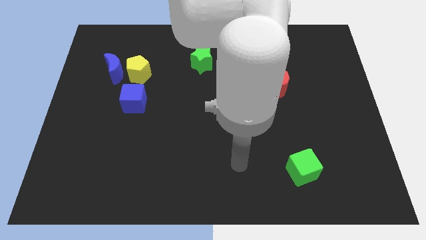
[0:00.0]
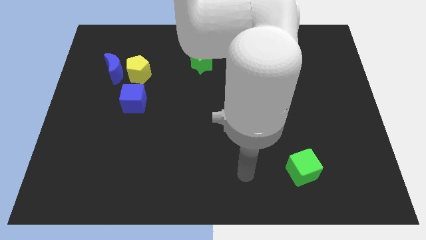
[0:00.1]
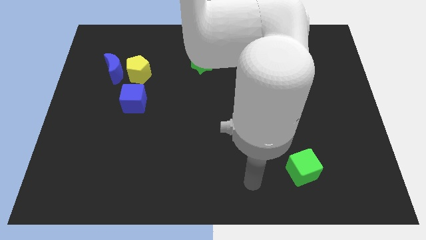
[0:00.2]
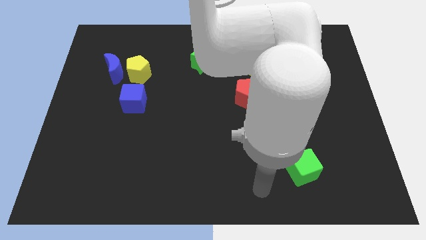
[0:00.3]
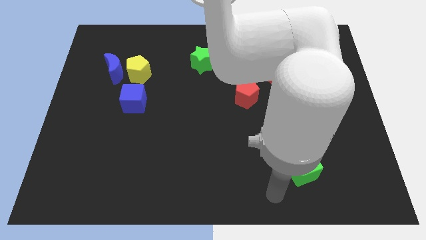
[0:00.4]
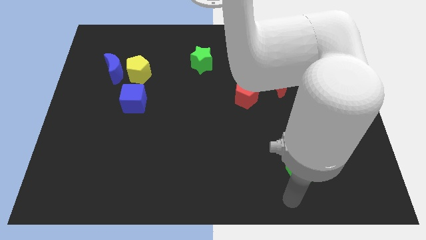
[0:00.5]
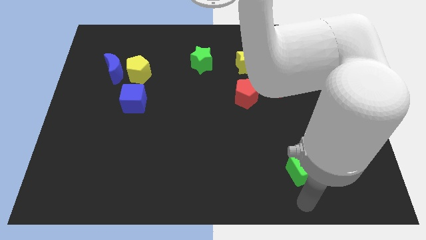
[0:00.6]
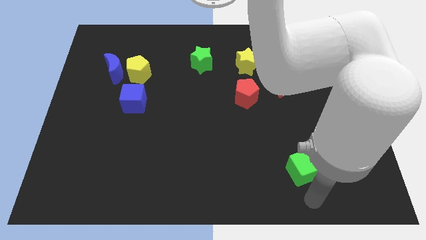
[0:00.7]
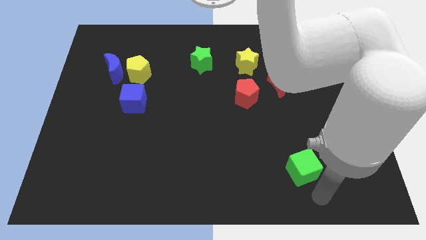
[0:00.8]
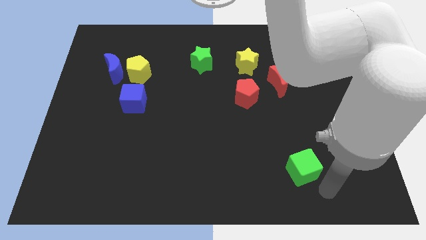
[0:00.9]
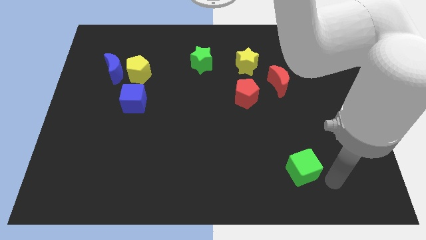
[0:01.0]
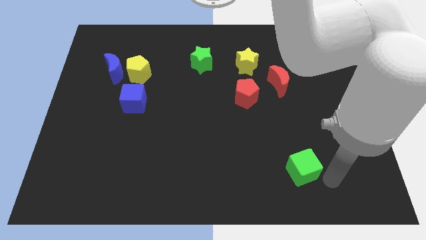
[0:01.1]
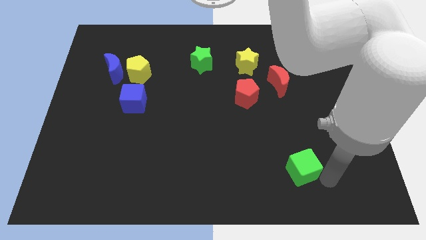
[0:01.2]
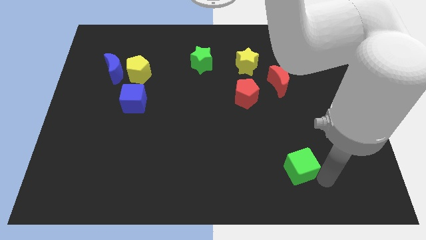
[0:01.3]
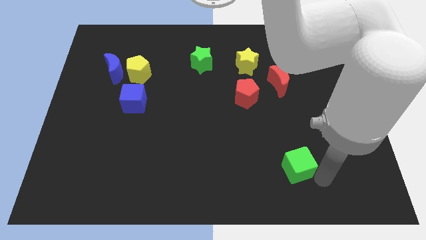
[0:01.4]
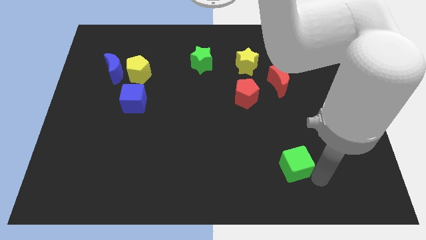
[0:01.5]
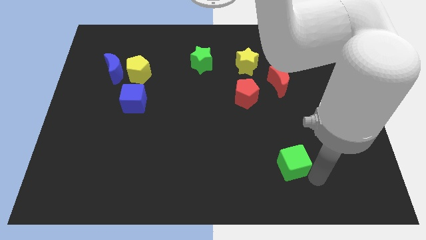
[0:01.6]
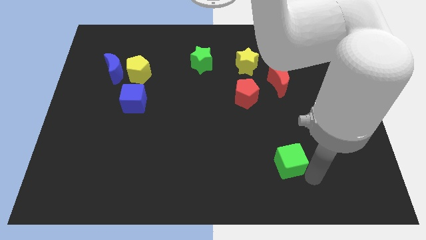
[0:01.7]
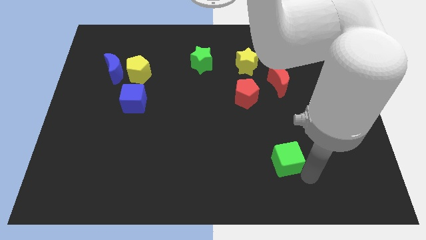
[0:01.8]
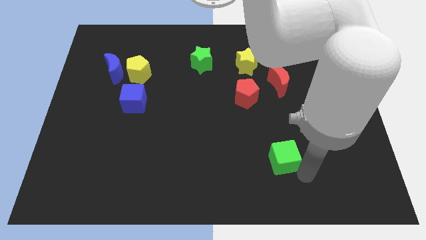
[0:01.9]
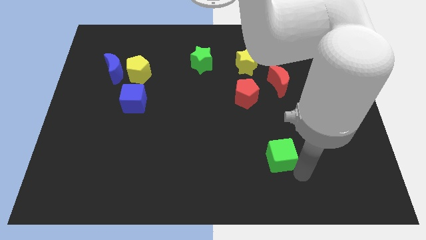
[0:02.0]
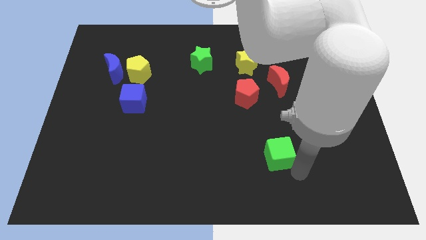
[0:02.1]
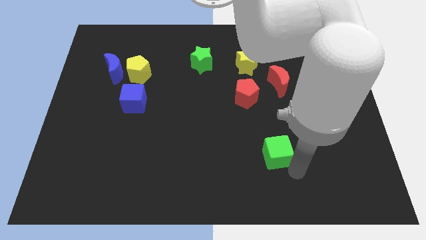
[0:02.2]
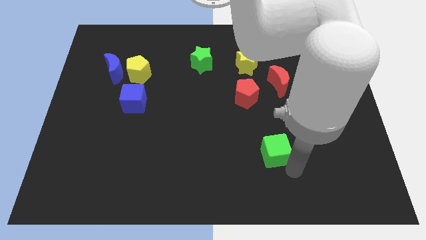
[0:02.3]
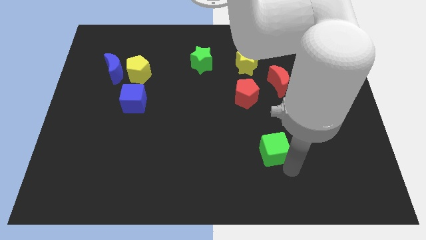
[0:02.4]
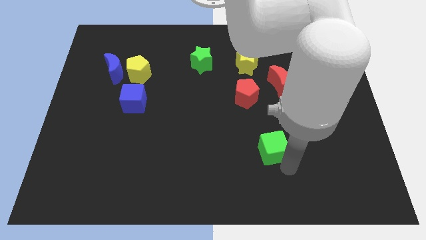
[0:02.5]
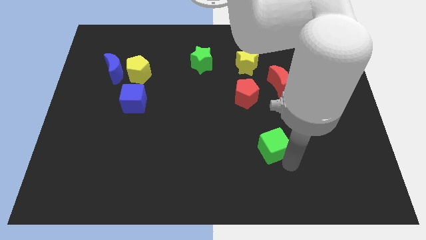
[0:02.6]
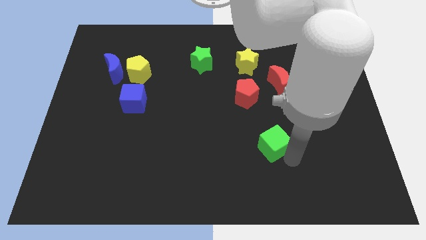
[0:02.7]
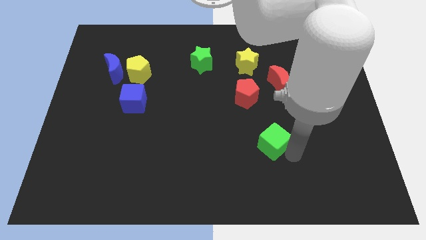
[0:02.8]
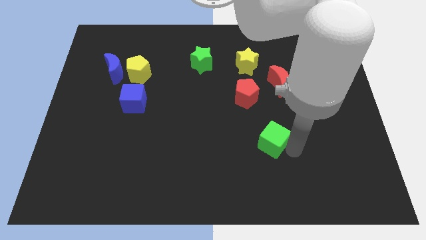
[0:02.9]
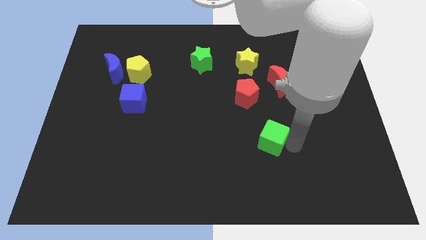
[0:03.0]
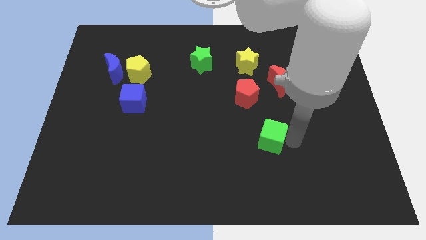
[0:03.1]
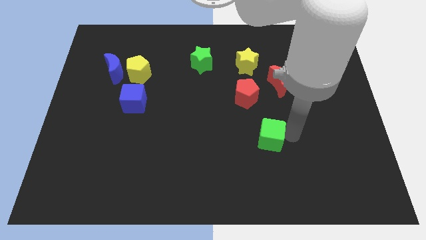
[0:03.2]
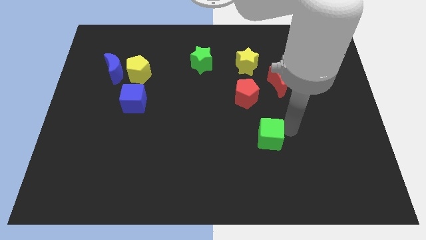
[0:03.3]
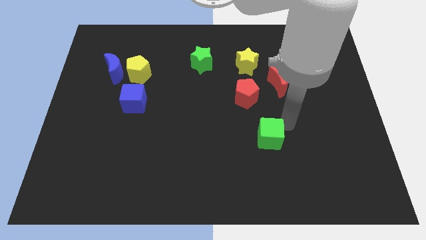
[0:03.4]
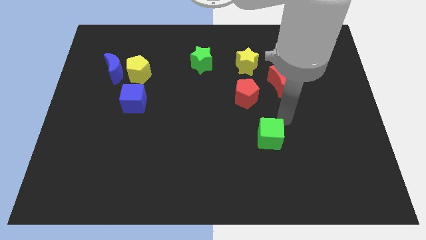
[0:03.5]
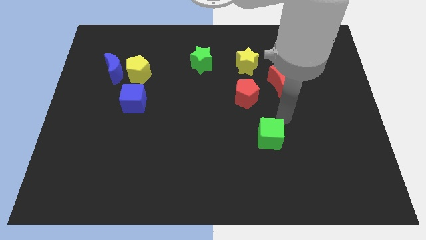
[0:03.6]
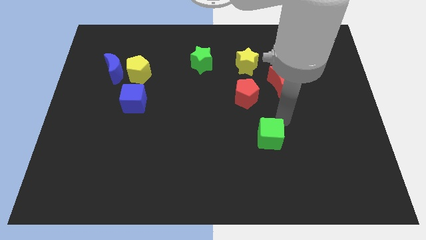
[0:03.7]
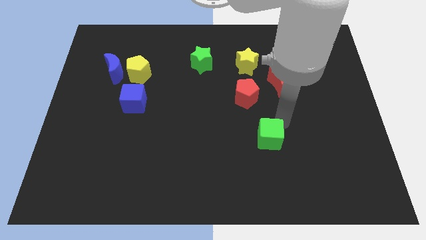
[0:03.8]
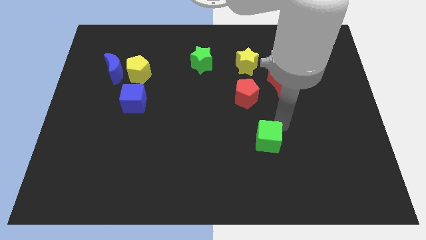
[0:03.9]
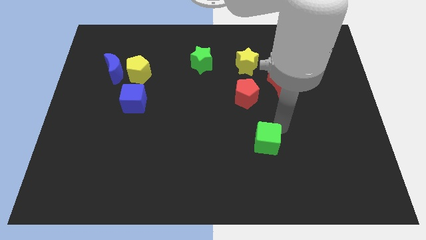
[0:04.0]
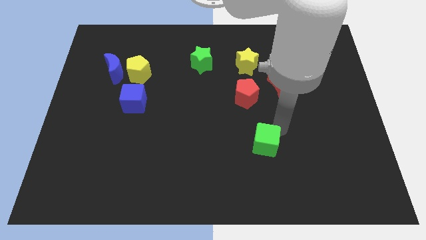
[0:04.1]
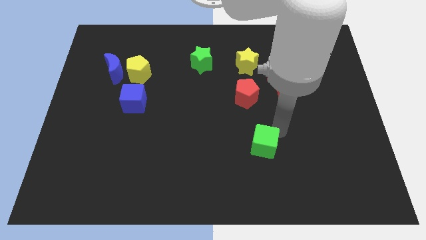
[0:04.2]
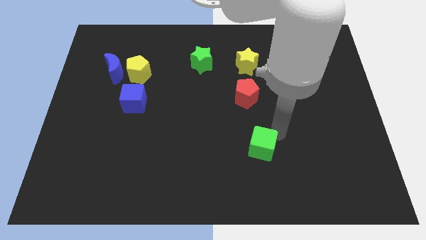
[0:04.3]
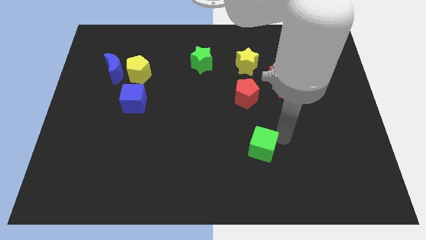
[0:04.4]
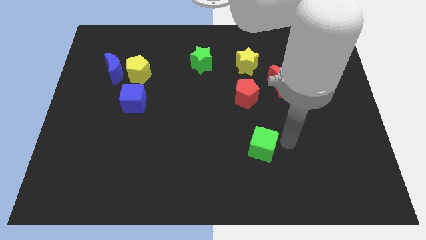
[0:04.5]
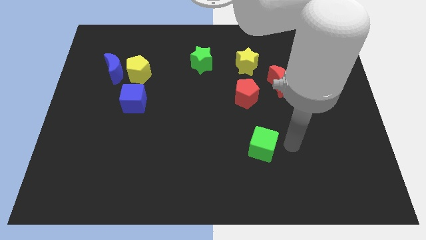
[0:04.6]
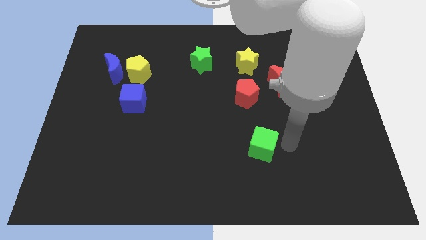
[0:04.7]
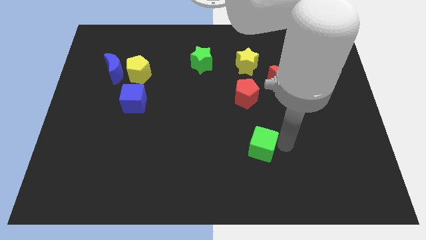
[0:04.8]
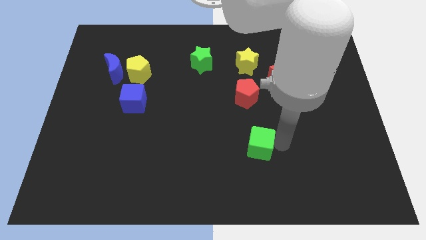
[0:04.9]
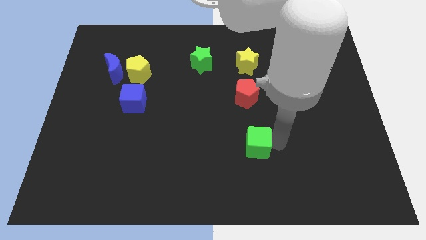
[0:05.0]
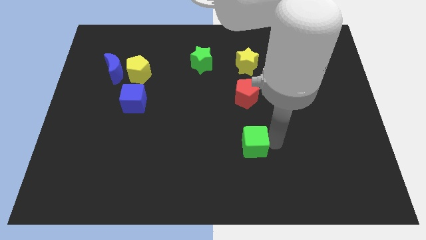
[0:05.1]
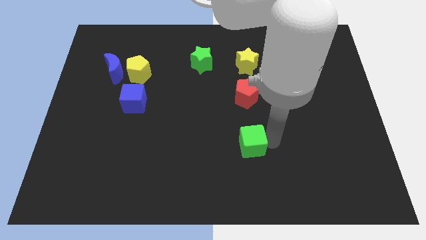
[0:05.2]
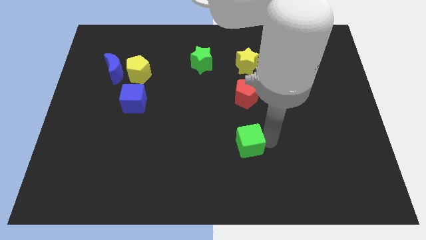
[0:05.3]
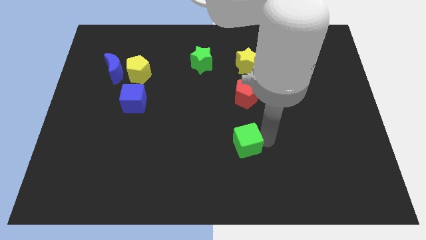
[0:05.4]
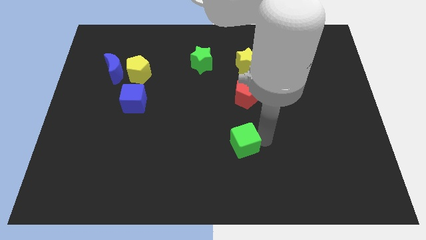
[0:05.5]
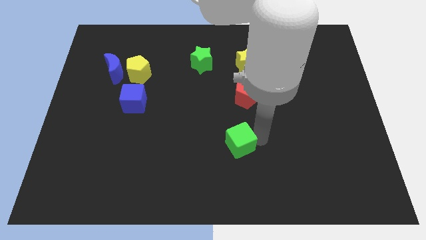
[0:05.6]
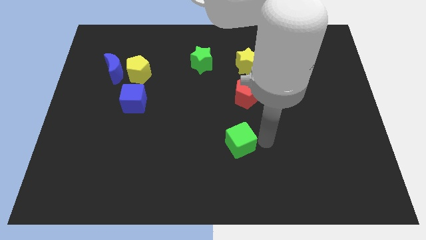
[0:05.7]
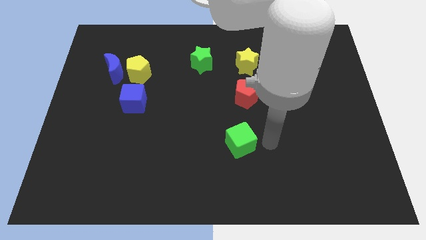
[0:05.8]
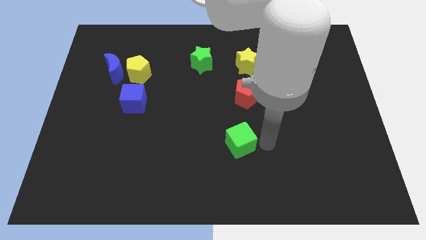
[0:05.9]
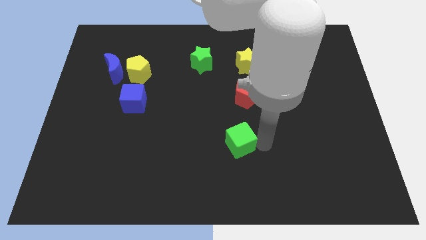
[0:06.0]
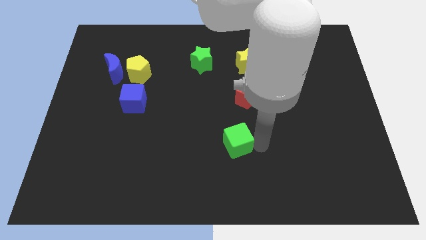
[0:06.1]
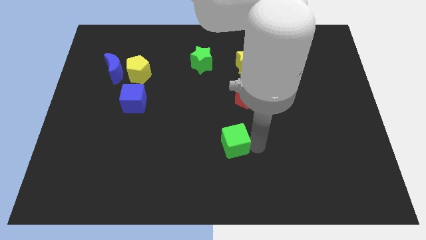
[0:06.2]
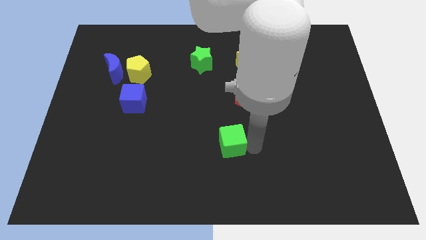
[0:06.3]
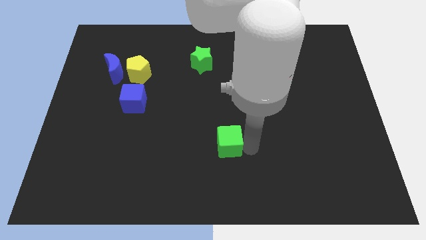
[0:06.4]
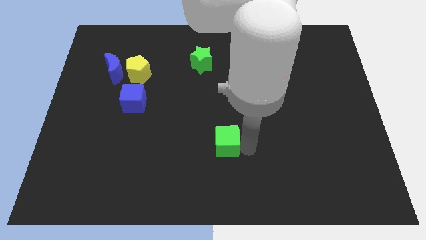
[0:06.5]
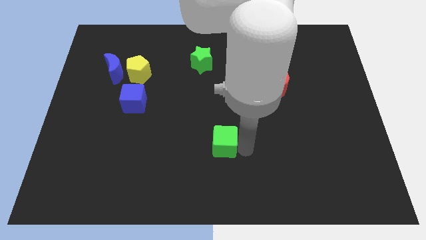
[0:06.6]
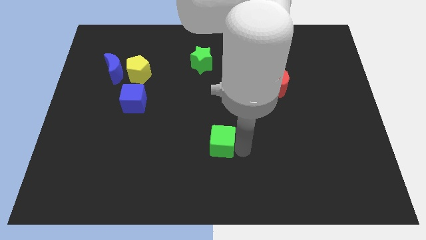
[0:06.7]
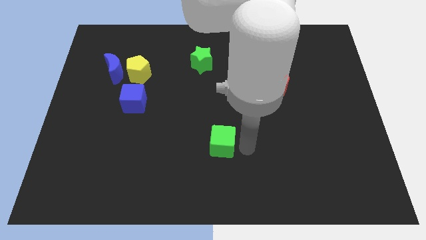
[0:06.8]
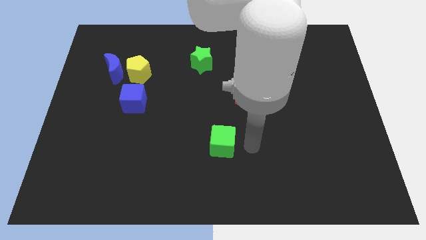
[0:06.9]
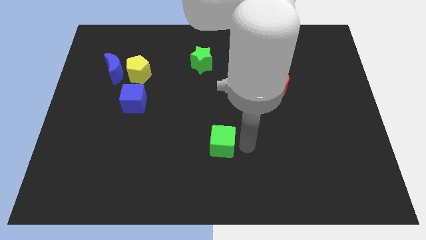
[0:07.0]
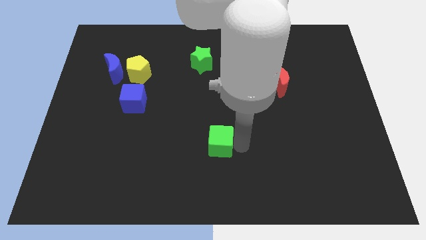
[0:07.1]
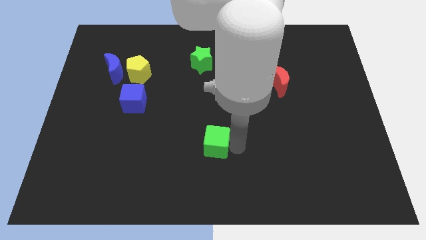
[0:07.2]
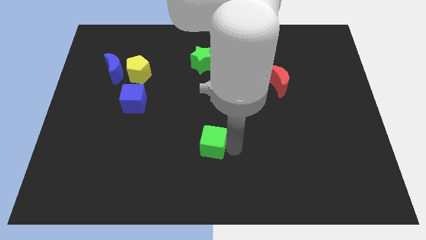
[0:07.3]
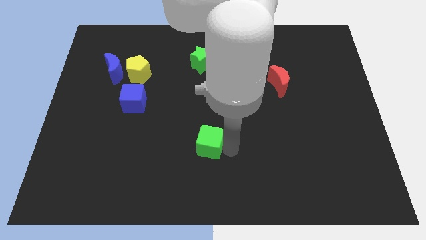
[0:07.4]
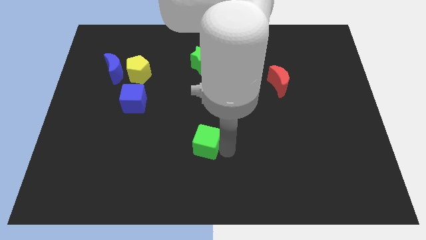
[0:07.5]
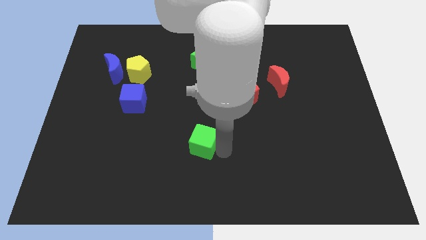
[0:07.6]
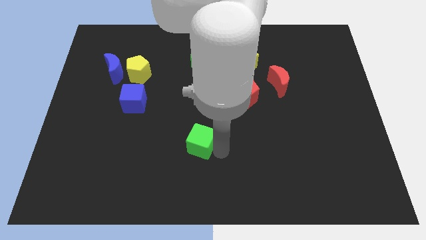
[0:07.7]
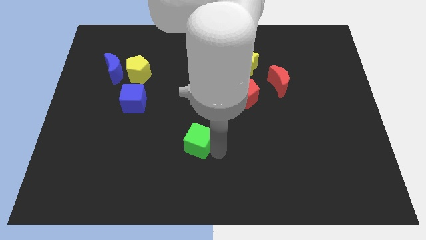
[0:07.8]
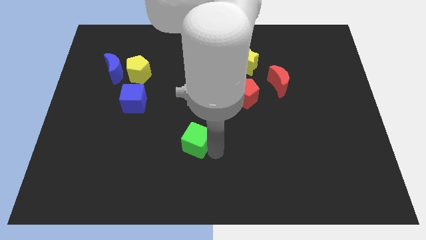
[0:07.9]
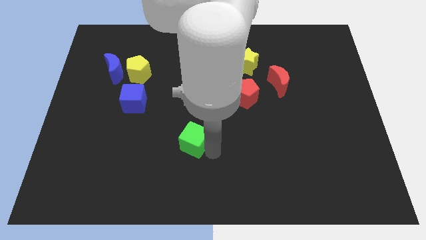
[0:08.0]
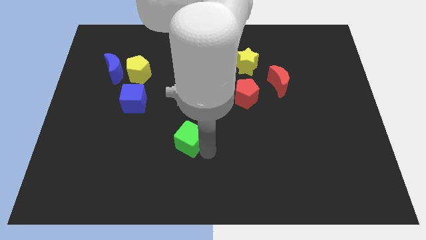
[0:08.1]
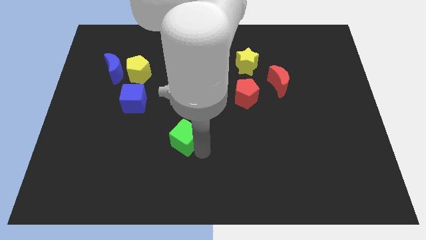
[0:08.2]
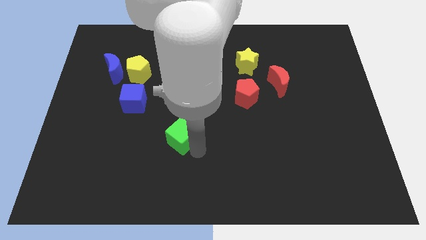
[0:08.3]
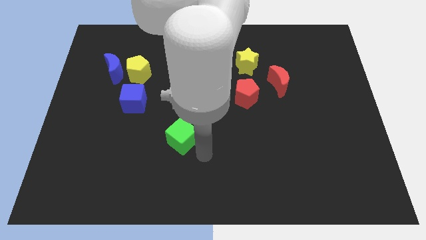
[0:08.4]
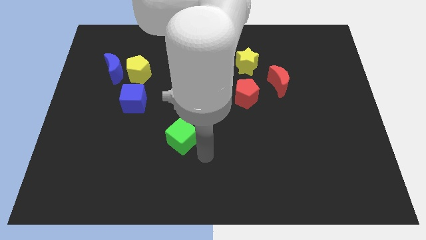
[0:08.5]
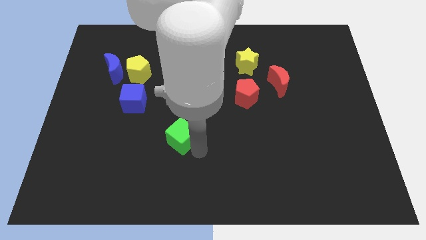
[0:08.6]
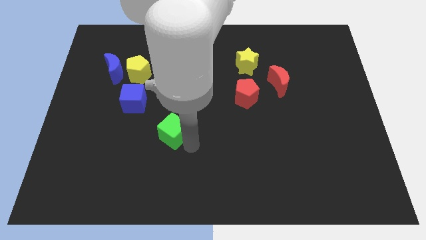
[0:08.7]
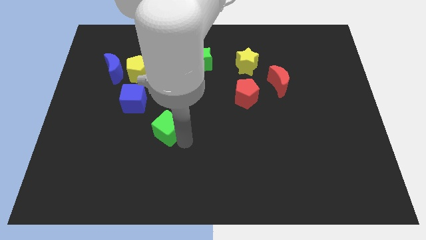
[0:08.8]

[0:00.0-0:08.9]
move the green cube to the bottom right of the blue cube
